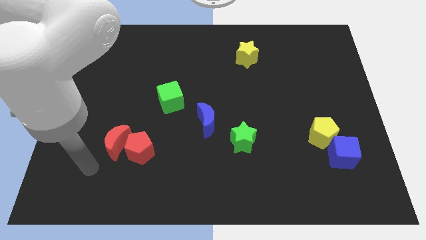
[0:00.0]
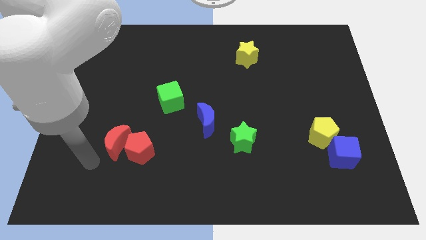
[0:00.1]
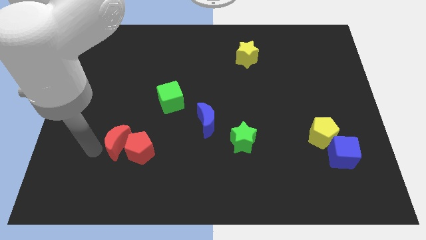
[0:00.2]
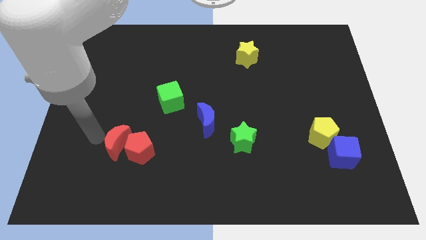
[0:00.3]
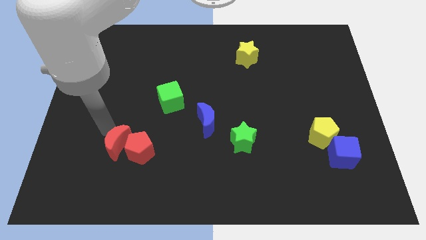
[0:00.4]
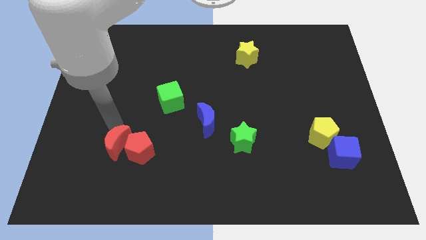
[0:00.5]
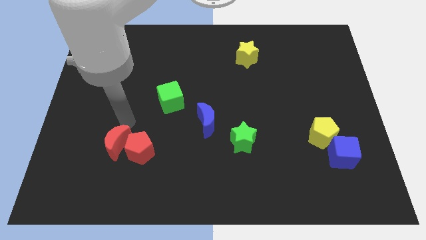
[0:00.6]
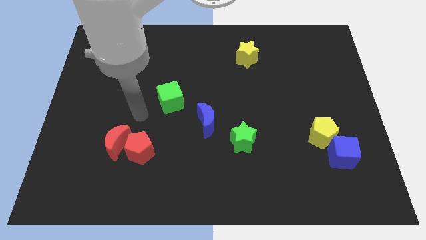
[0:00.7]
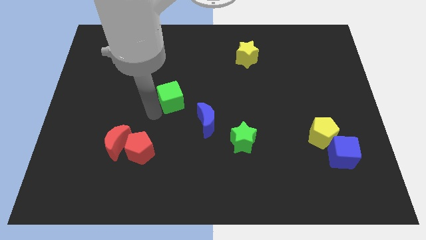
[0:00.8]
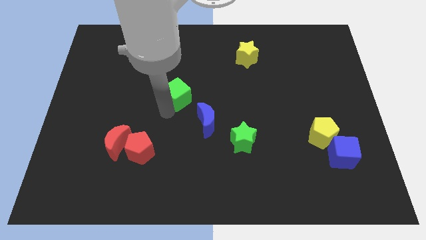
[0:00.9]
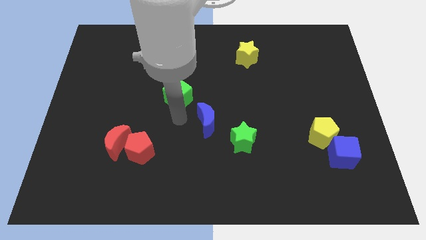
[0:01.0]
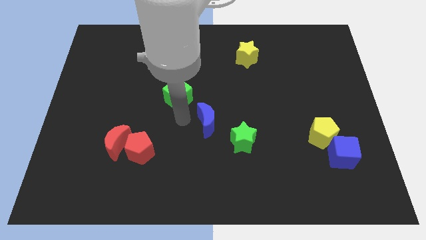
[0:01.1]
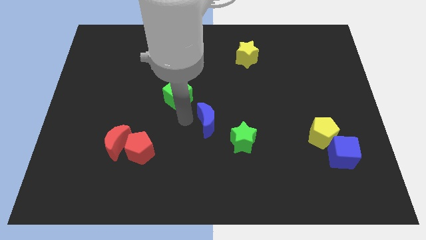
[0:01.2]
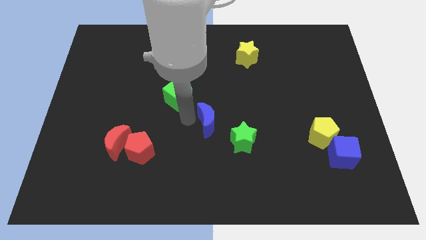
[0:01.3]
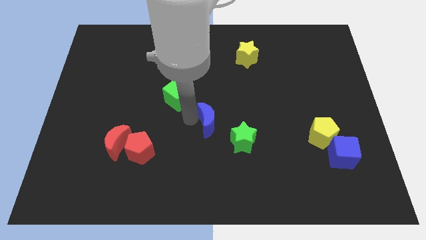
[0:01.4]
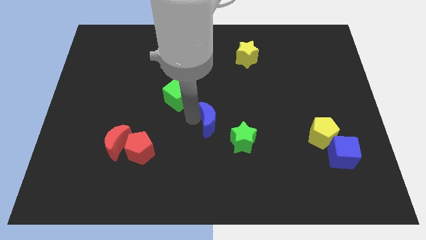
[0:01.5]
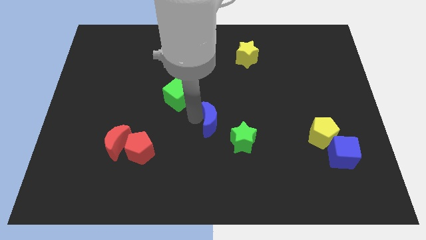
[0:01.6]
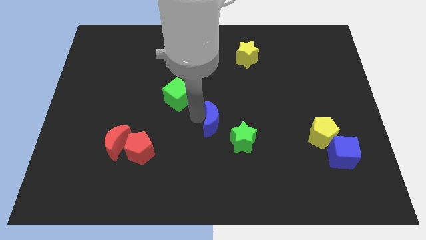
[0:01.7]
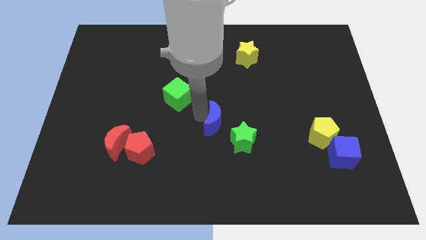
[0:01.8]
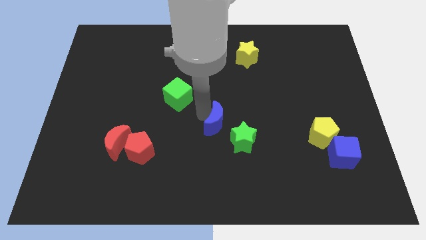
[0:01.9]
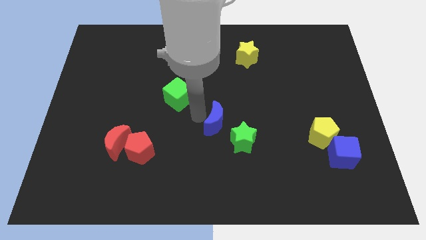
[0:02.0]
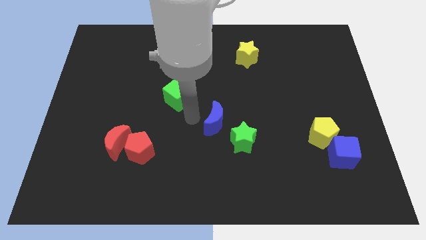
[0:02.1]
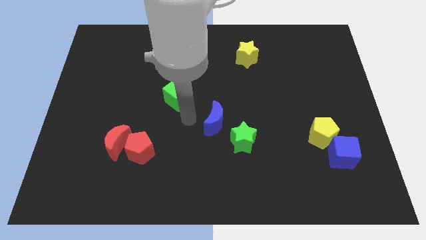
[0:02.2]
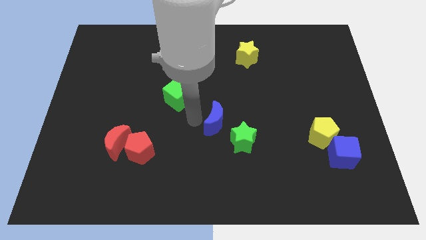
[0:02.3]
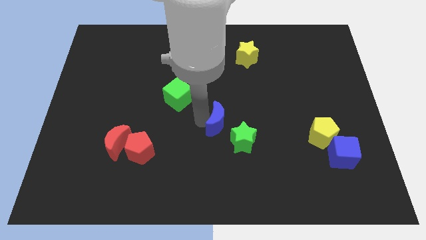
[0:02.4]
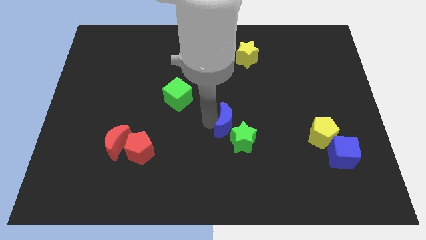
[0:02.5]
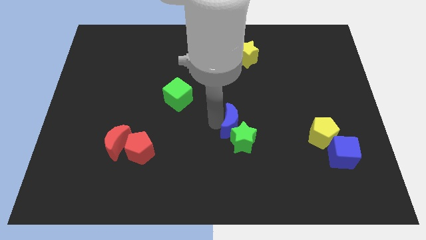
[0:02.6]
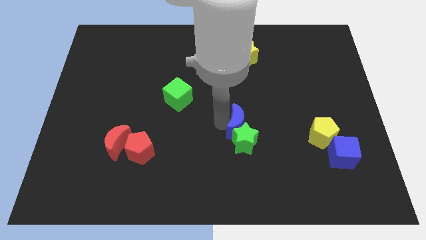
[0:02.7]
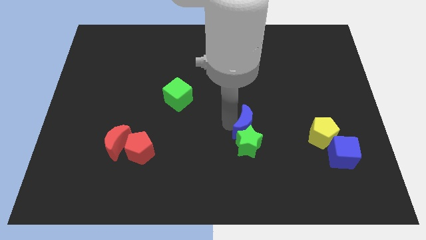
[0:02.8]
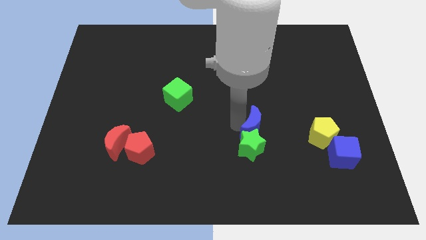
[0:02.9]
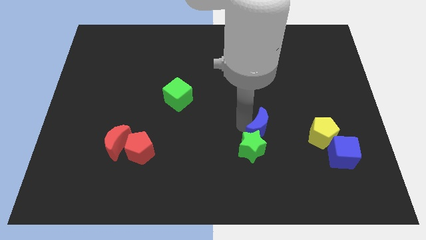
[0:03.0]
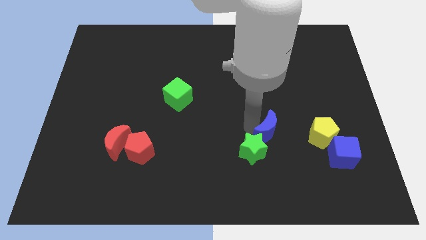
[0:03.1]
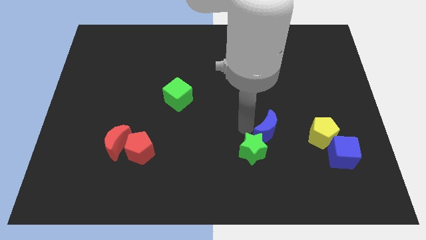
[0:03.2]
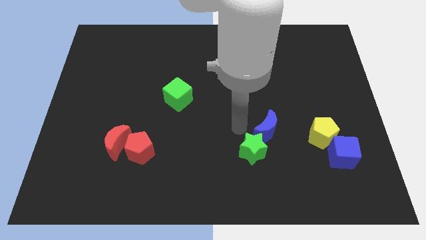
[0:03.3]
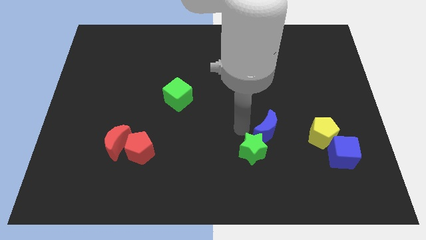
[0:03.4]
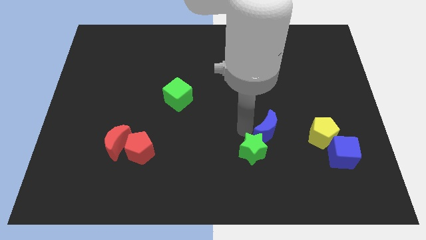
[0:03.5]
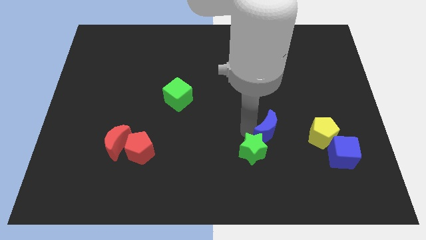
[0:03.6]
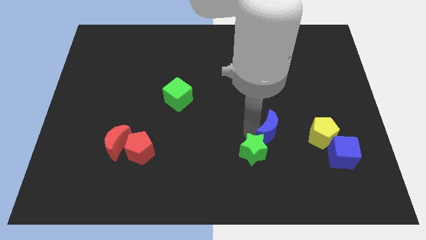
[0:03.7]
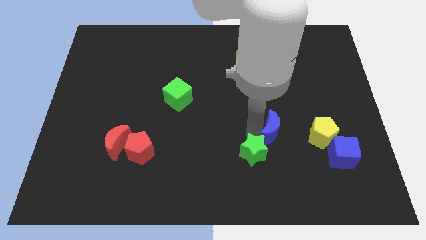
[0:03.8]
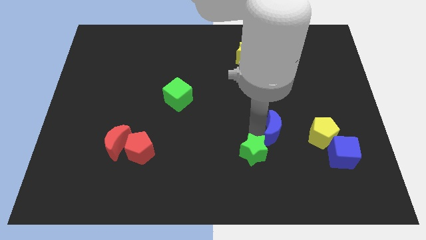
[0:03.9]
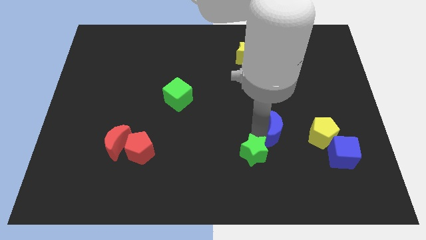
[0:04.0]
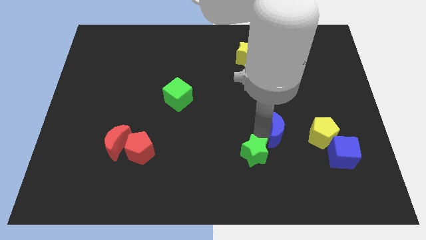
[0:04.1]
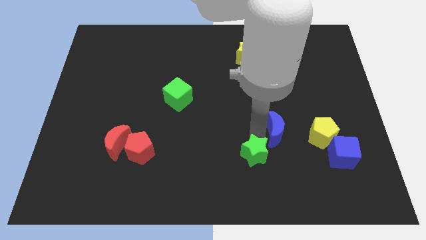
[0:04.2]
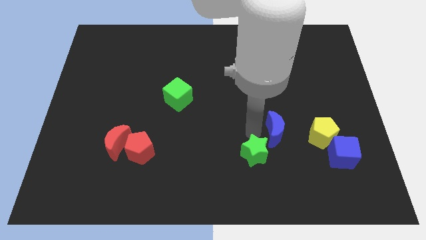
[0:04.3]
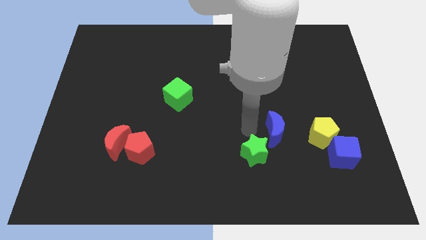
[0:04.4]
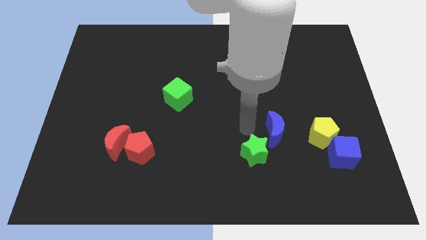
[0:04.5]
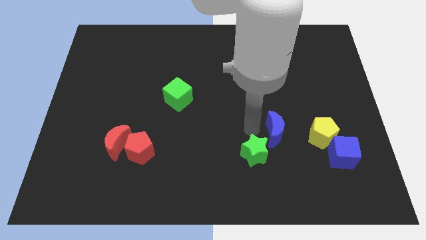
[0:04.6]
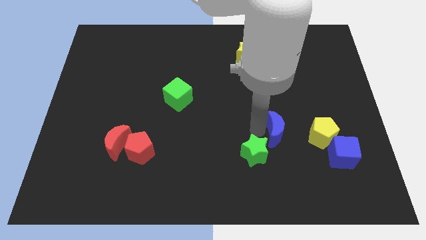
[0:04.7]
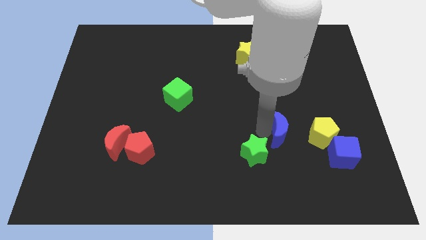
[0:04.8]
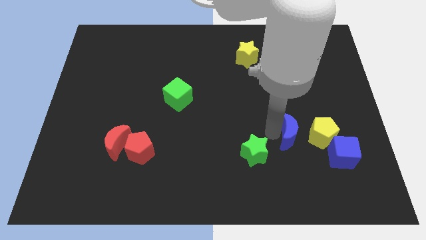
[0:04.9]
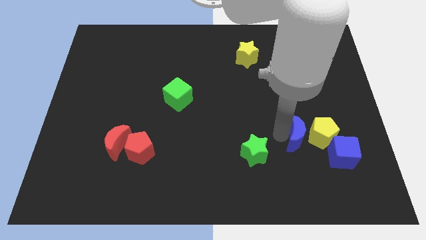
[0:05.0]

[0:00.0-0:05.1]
move the blue moon towards the yellow pentagon

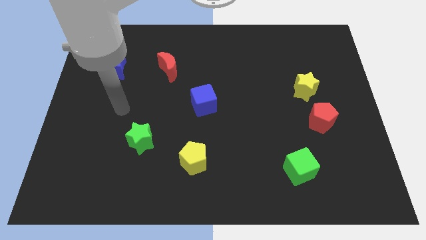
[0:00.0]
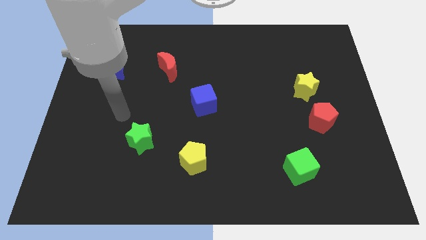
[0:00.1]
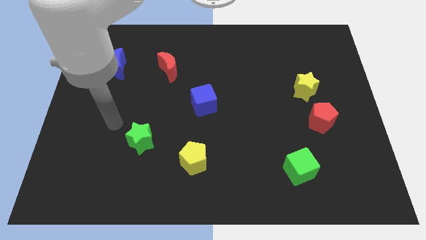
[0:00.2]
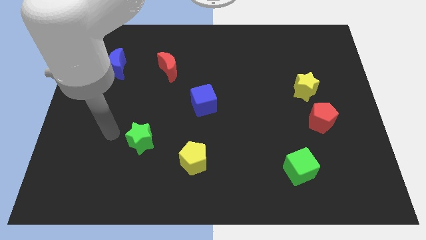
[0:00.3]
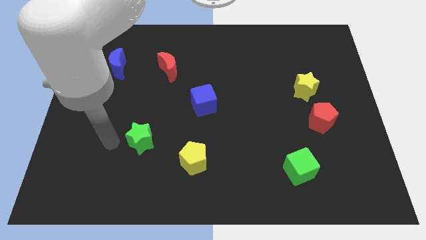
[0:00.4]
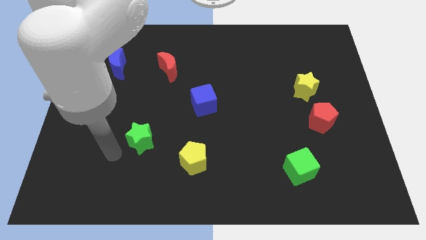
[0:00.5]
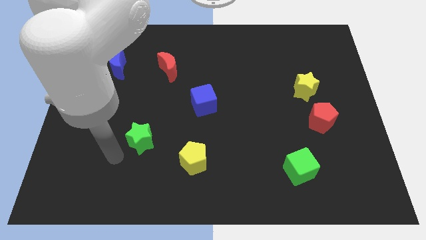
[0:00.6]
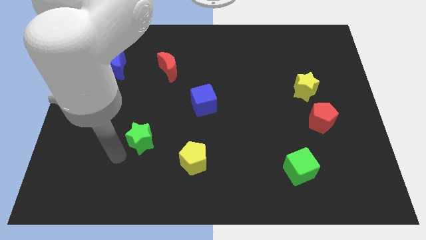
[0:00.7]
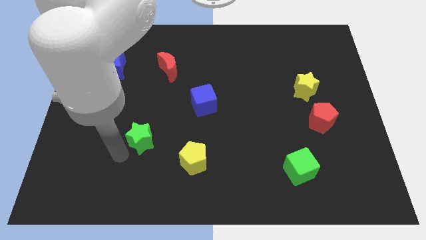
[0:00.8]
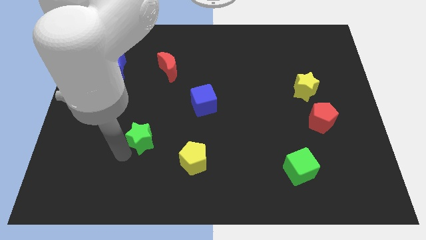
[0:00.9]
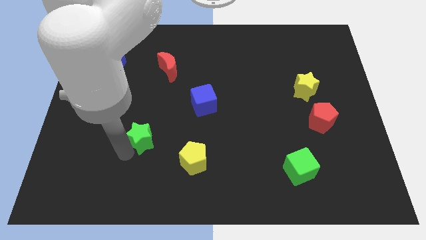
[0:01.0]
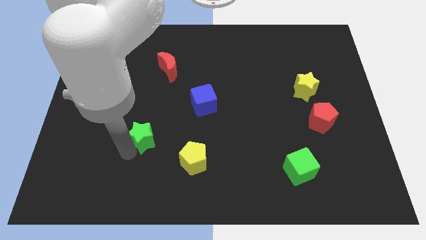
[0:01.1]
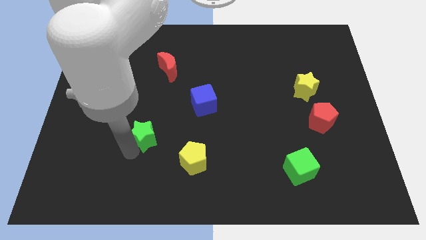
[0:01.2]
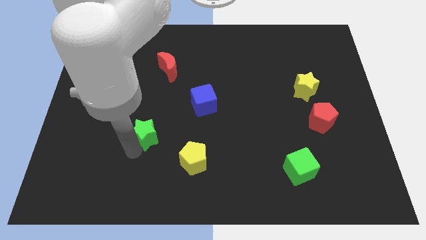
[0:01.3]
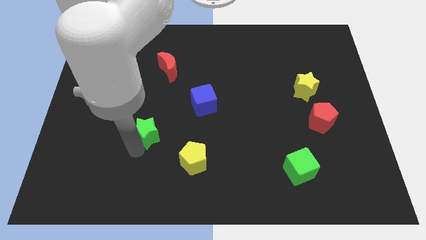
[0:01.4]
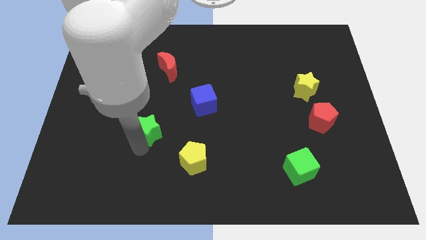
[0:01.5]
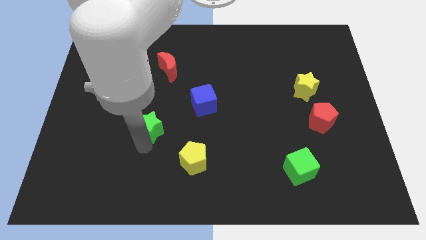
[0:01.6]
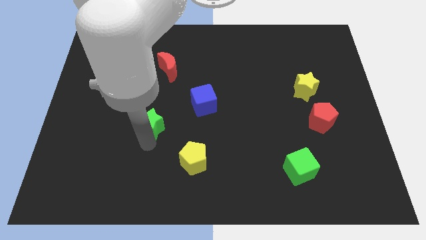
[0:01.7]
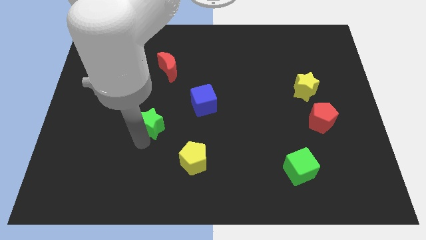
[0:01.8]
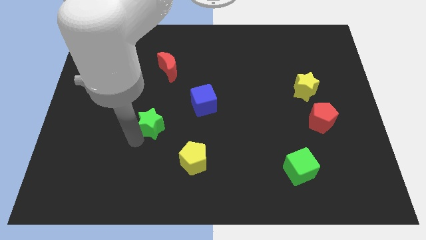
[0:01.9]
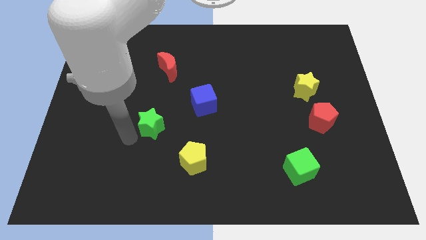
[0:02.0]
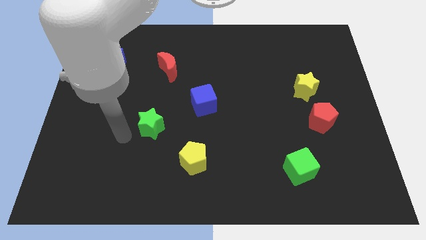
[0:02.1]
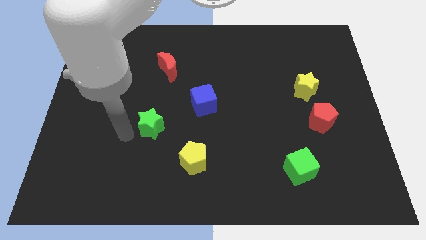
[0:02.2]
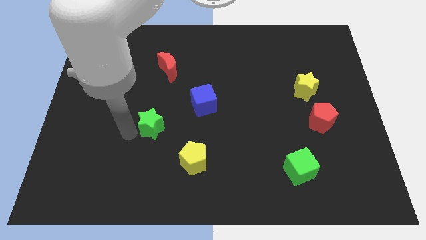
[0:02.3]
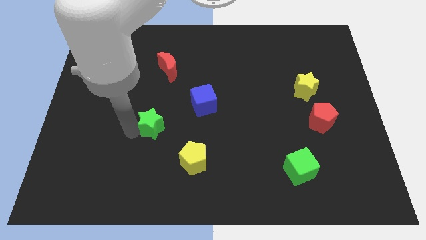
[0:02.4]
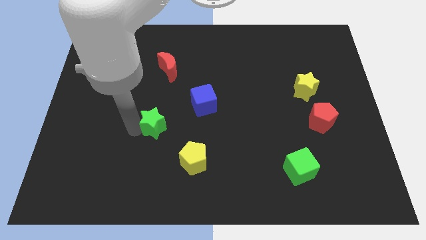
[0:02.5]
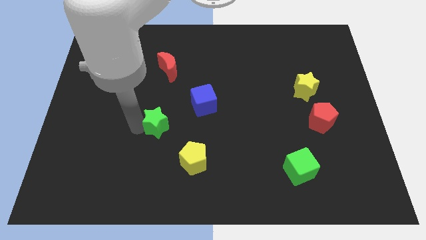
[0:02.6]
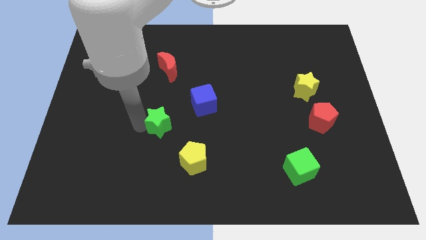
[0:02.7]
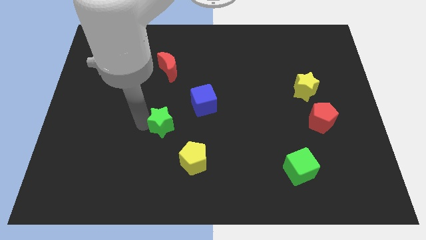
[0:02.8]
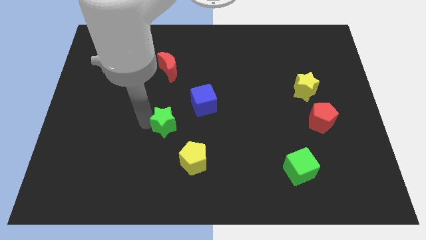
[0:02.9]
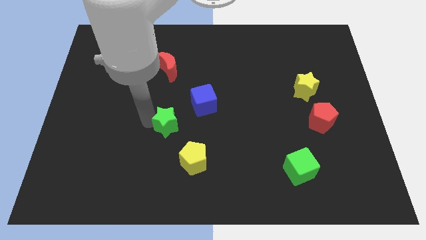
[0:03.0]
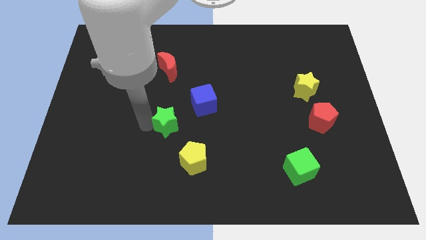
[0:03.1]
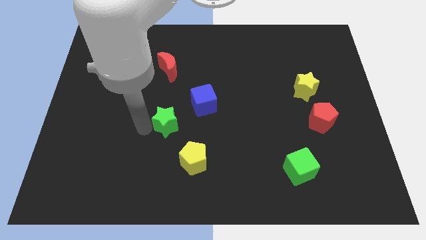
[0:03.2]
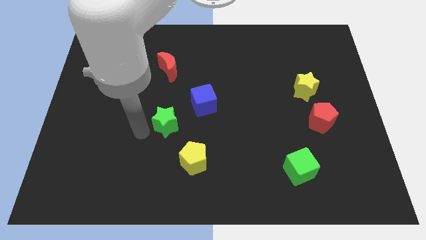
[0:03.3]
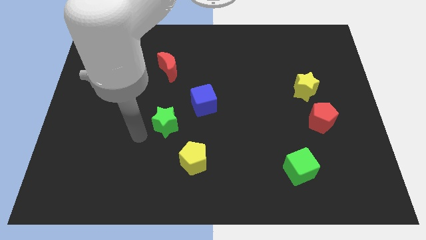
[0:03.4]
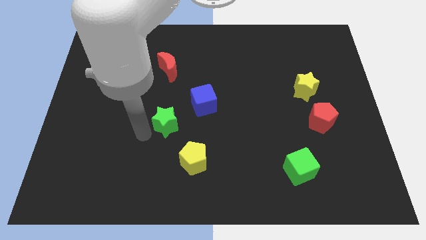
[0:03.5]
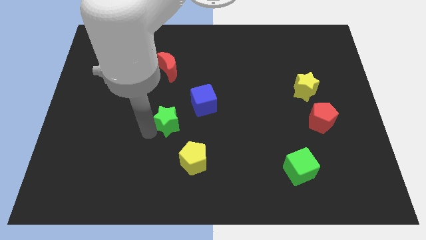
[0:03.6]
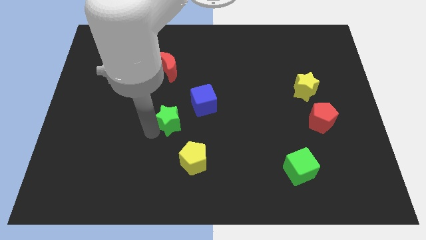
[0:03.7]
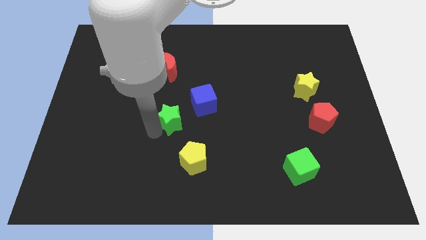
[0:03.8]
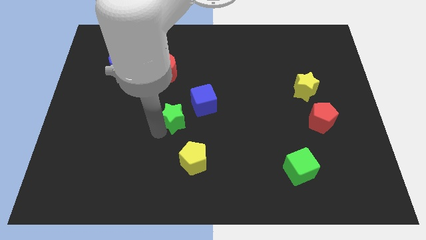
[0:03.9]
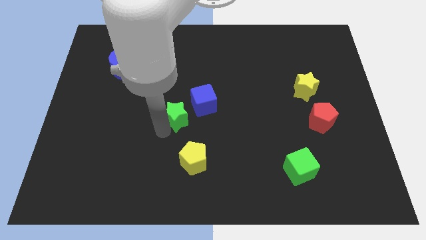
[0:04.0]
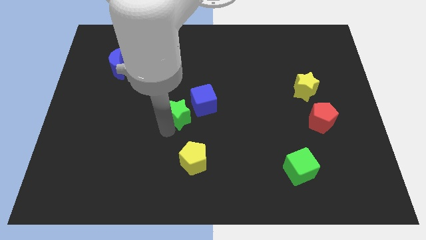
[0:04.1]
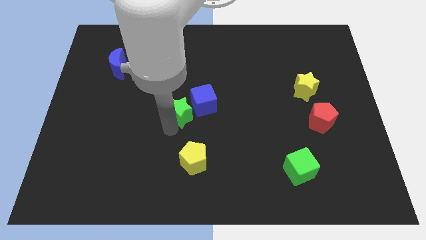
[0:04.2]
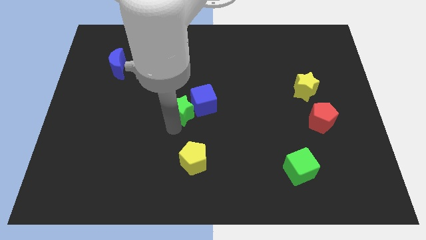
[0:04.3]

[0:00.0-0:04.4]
push the green star to the blue cube
